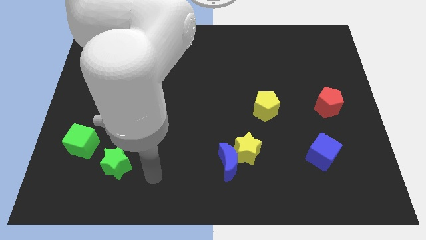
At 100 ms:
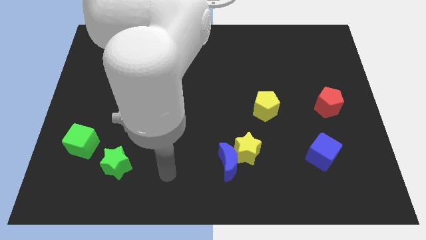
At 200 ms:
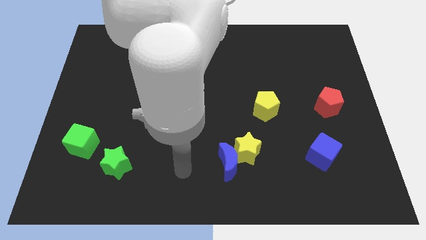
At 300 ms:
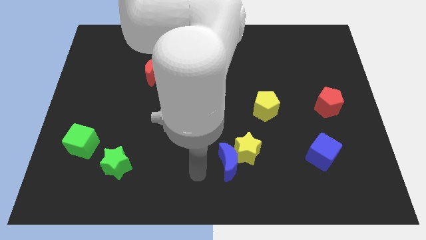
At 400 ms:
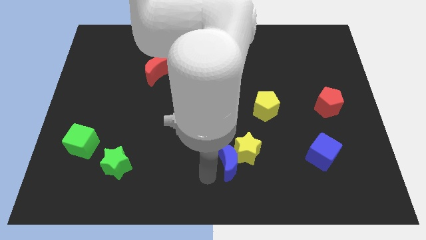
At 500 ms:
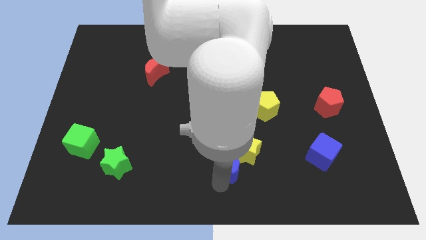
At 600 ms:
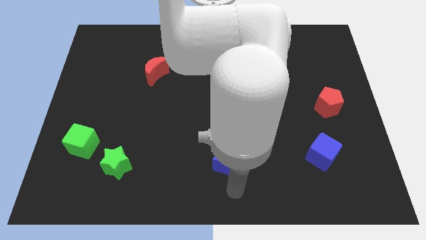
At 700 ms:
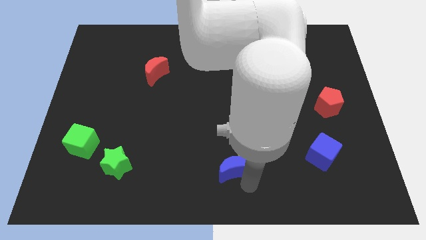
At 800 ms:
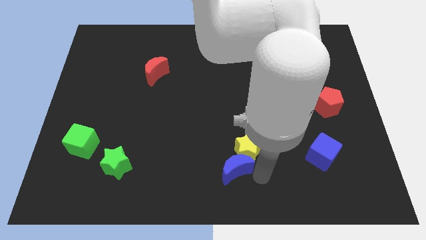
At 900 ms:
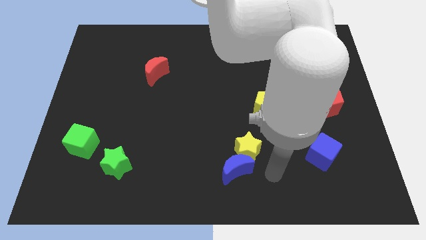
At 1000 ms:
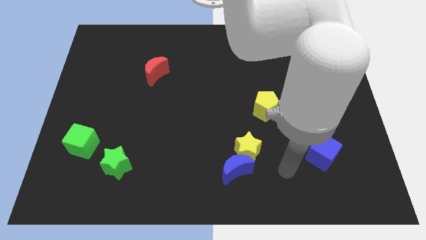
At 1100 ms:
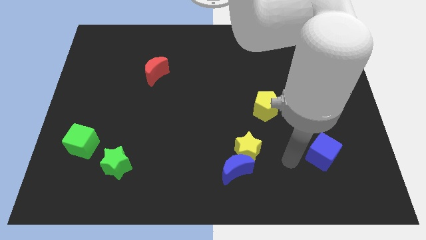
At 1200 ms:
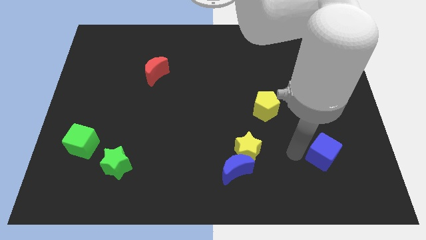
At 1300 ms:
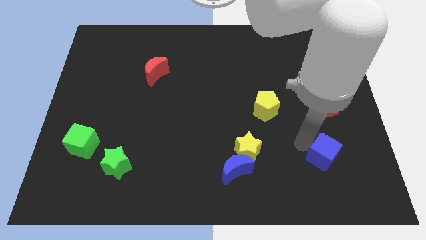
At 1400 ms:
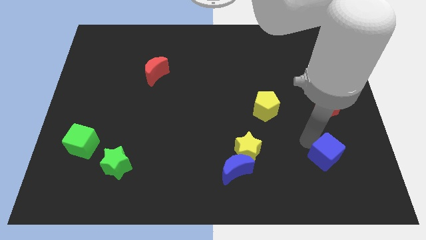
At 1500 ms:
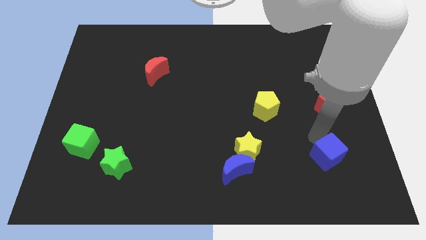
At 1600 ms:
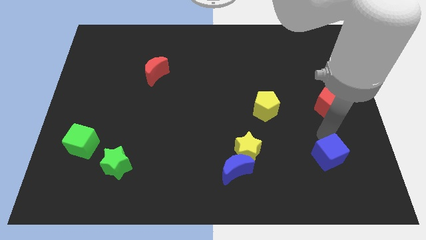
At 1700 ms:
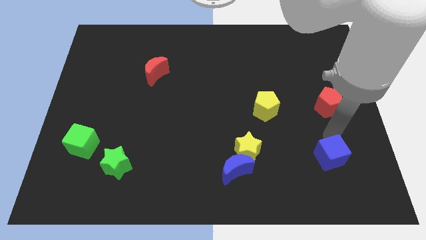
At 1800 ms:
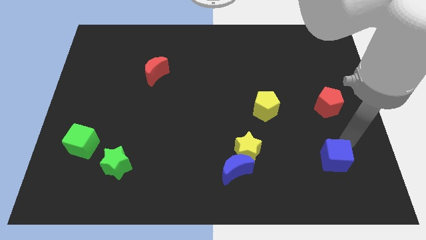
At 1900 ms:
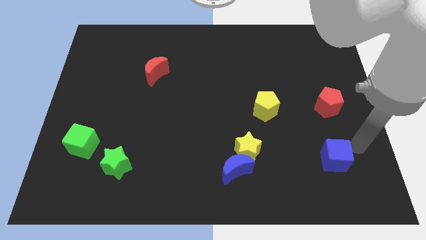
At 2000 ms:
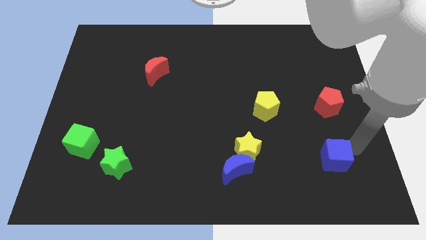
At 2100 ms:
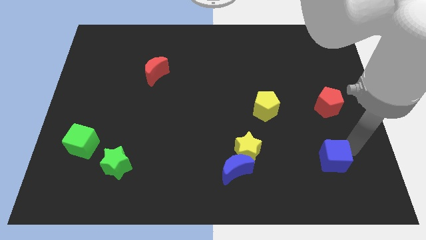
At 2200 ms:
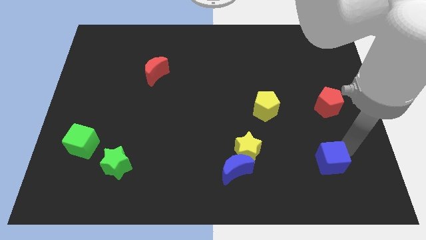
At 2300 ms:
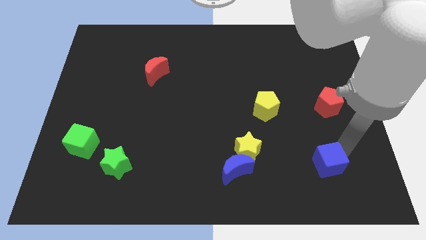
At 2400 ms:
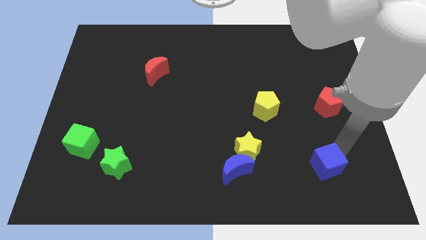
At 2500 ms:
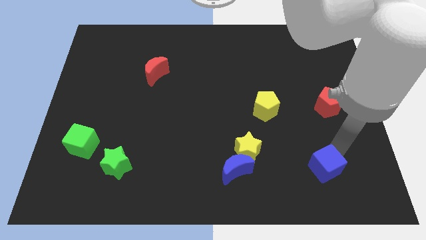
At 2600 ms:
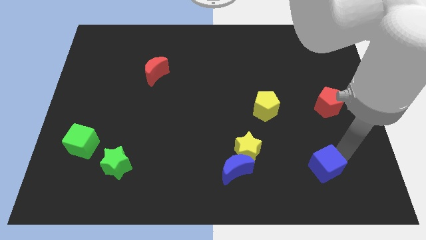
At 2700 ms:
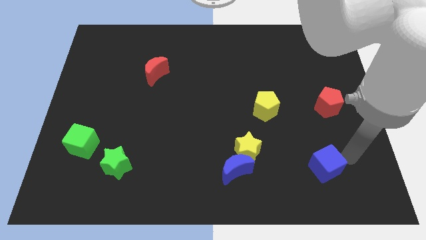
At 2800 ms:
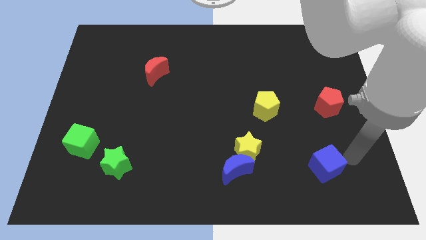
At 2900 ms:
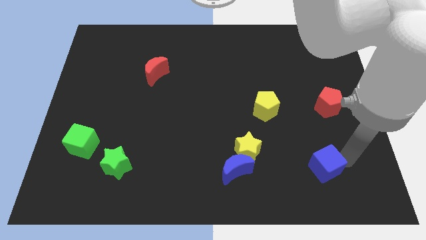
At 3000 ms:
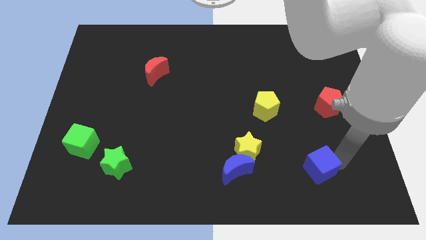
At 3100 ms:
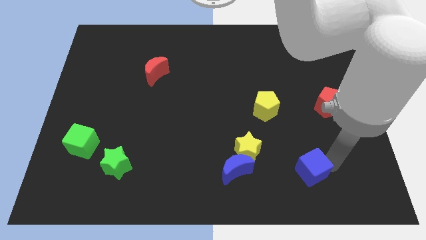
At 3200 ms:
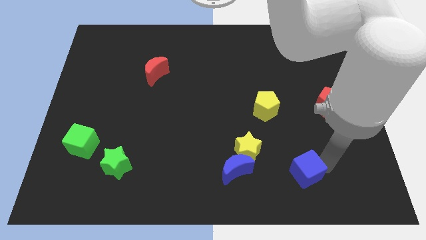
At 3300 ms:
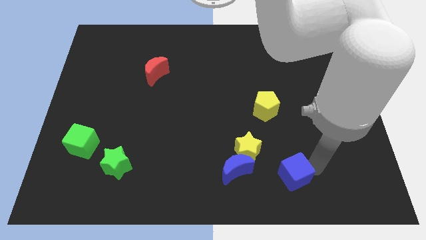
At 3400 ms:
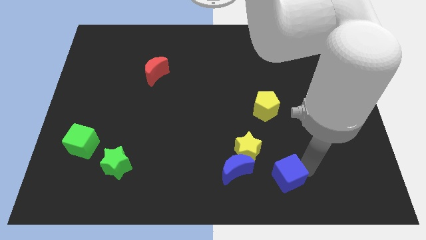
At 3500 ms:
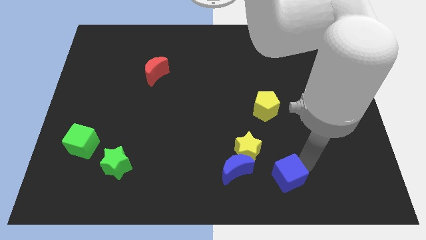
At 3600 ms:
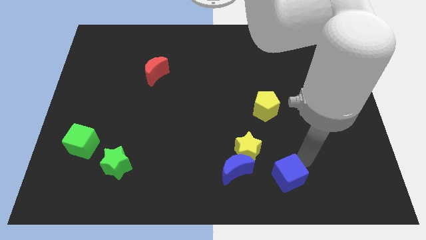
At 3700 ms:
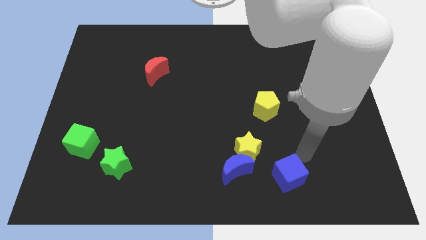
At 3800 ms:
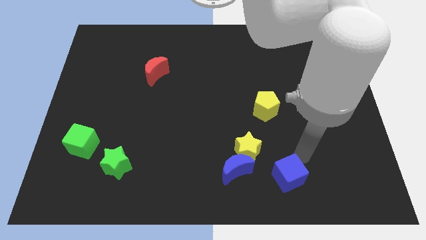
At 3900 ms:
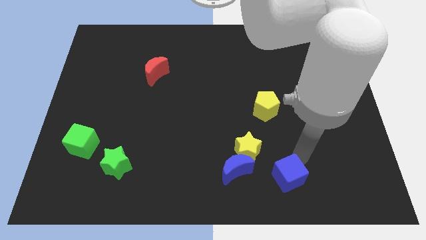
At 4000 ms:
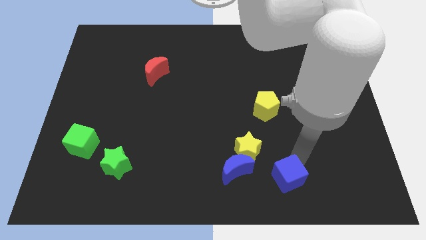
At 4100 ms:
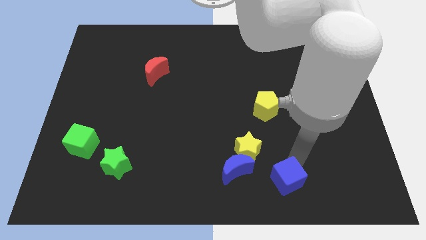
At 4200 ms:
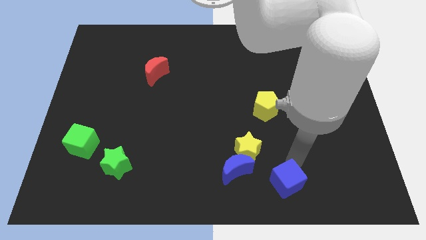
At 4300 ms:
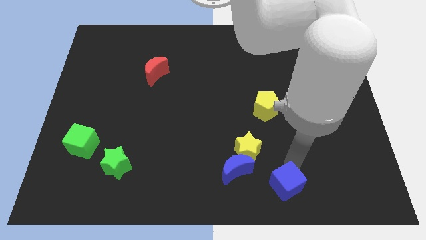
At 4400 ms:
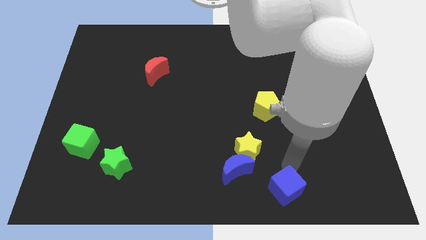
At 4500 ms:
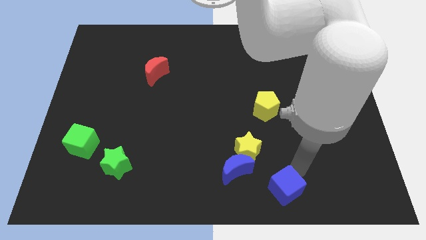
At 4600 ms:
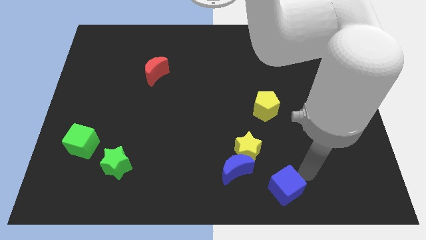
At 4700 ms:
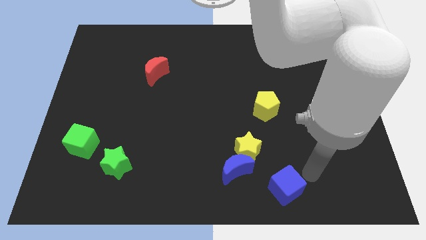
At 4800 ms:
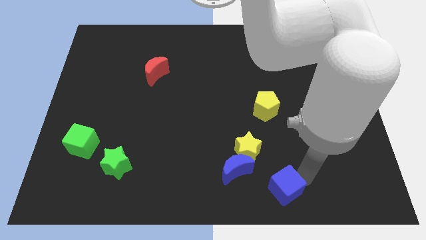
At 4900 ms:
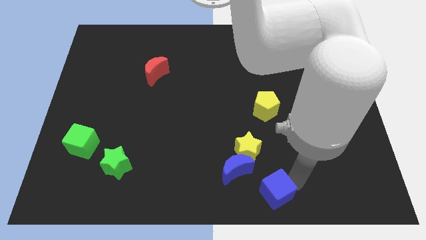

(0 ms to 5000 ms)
push the blue cube to the bottom side

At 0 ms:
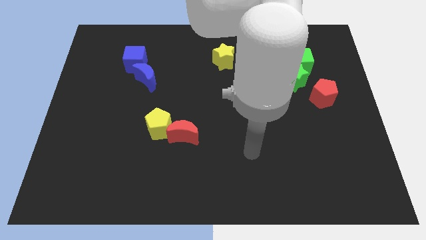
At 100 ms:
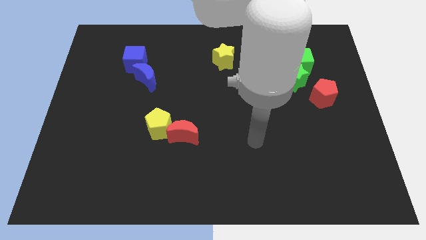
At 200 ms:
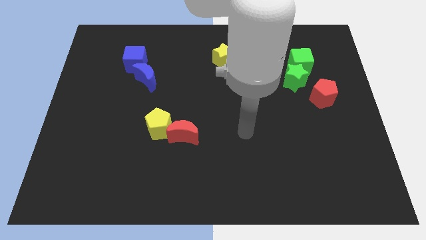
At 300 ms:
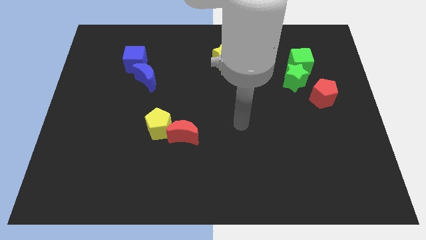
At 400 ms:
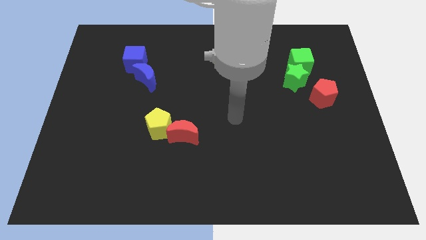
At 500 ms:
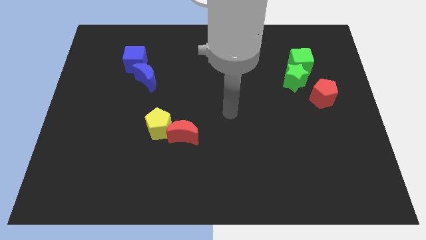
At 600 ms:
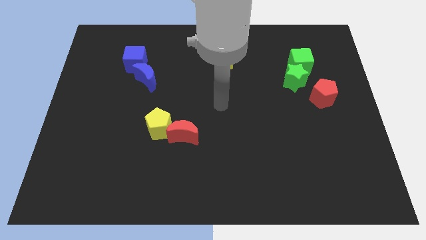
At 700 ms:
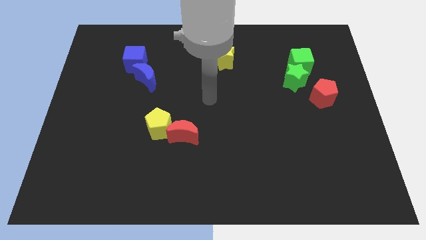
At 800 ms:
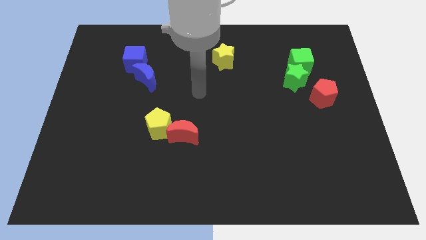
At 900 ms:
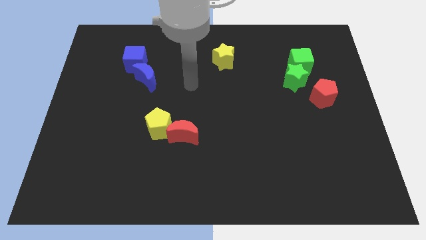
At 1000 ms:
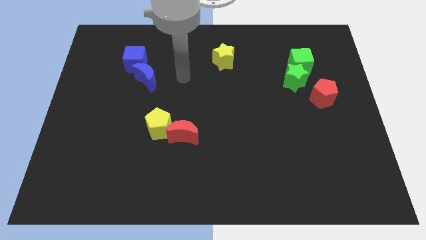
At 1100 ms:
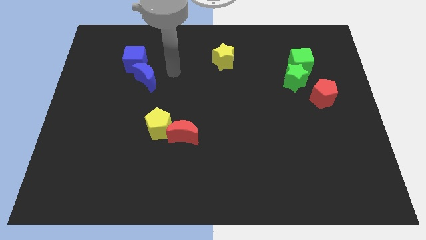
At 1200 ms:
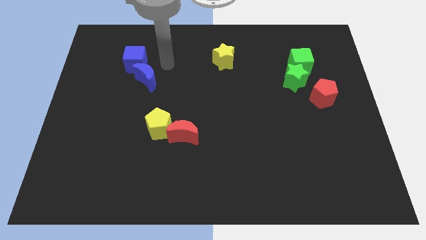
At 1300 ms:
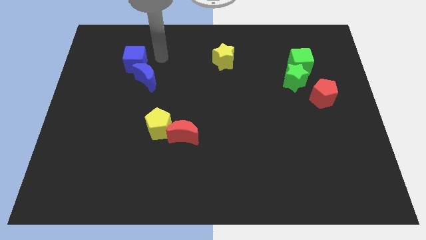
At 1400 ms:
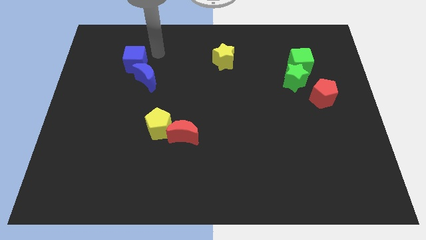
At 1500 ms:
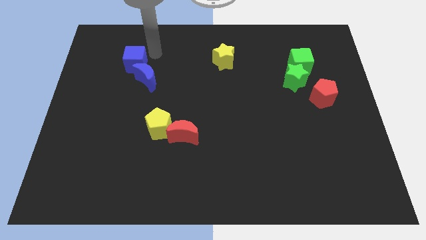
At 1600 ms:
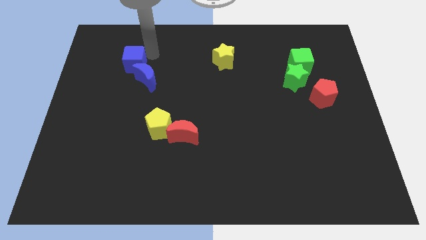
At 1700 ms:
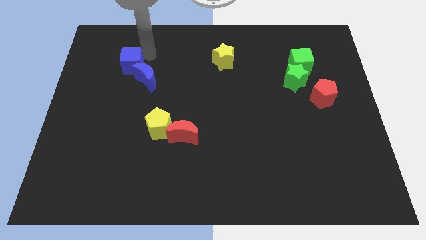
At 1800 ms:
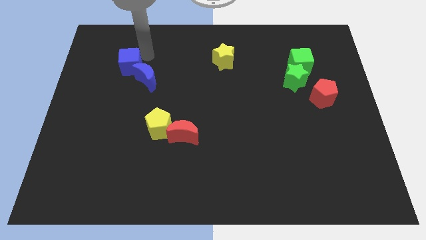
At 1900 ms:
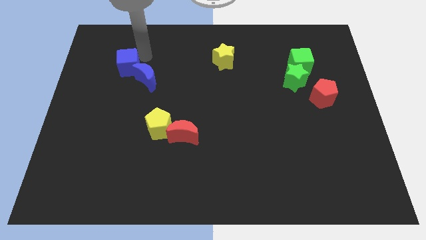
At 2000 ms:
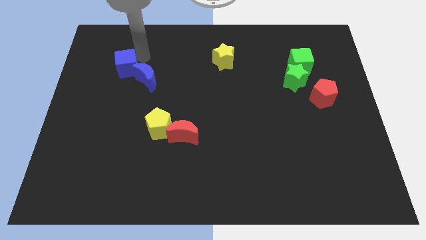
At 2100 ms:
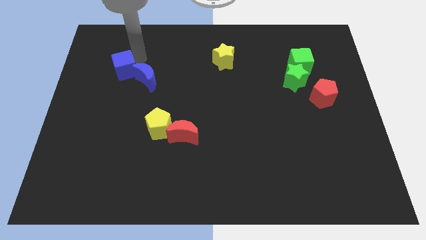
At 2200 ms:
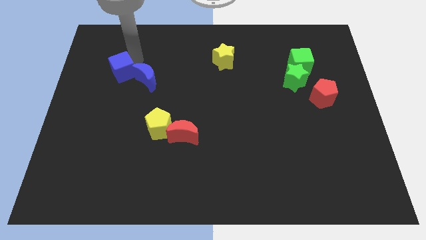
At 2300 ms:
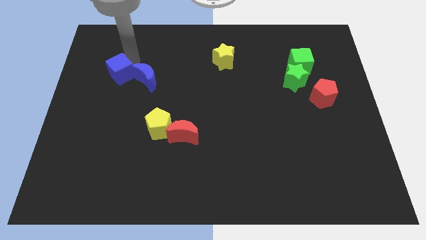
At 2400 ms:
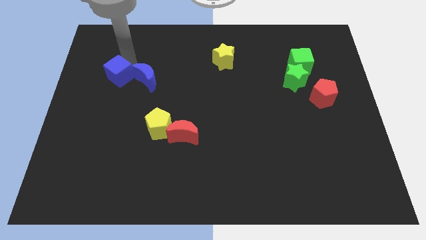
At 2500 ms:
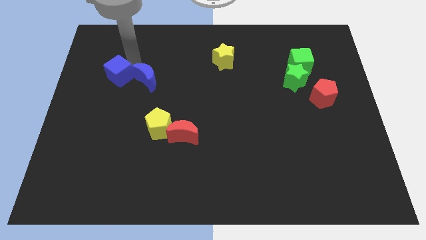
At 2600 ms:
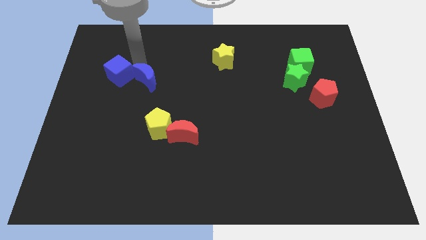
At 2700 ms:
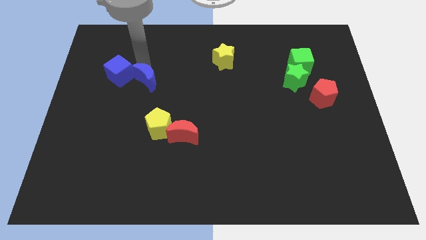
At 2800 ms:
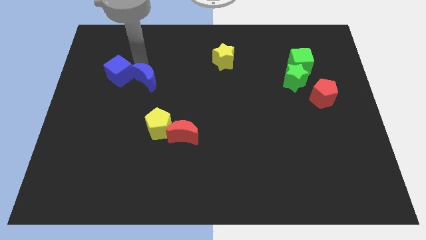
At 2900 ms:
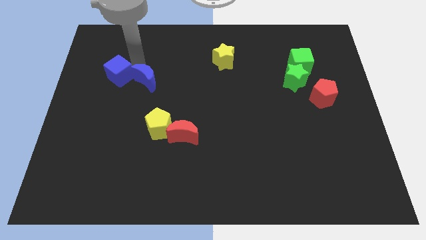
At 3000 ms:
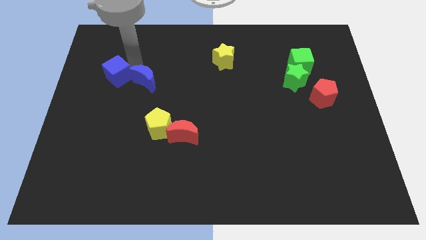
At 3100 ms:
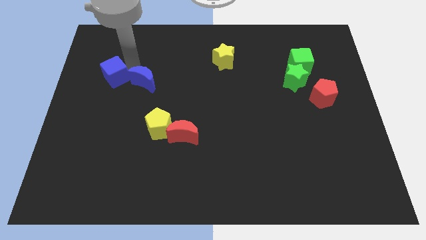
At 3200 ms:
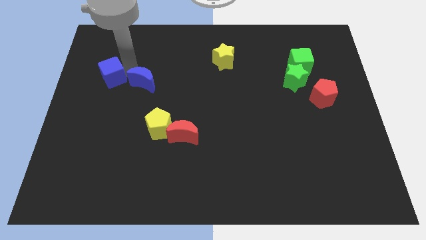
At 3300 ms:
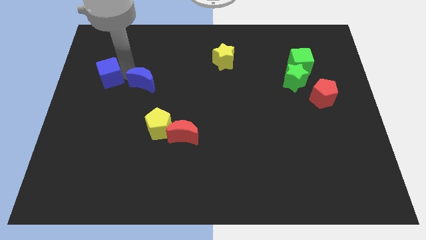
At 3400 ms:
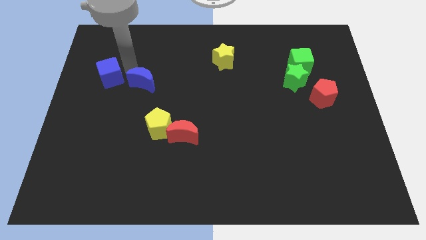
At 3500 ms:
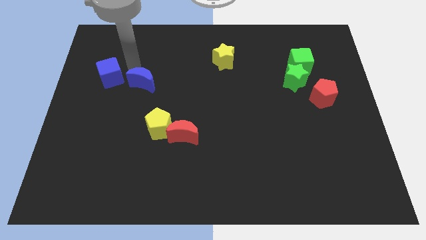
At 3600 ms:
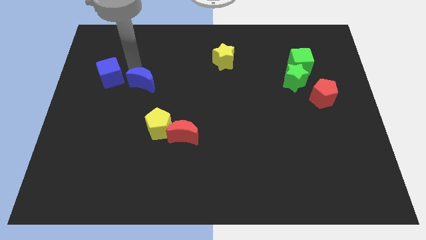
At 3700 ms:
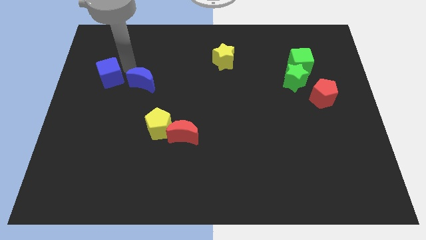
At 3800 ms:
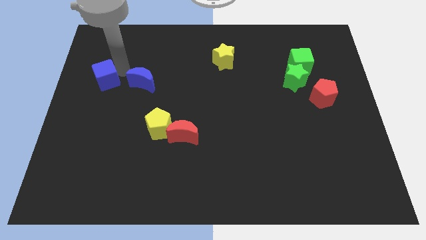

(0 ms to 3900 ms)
push the blue cube to the left side
